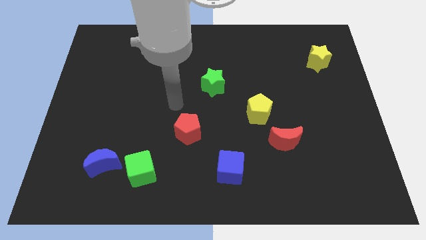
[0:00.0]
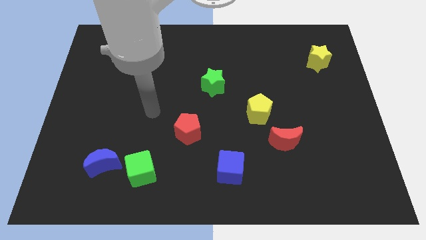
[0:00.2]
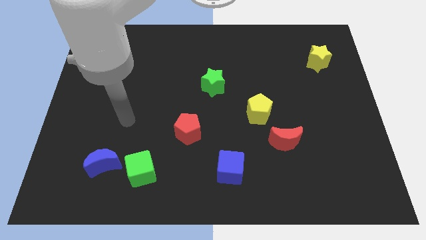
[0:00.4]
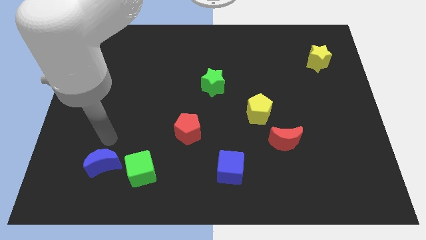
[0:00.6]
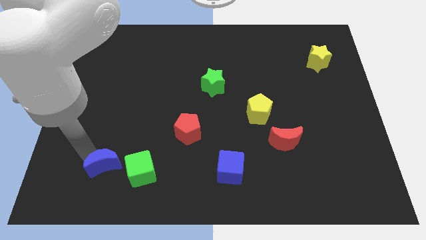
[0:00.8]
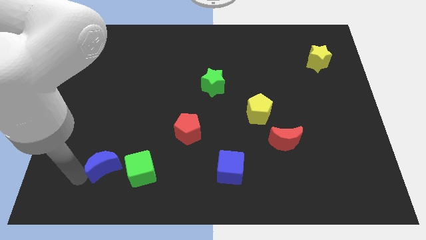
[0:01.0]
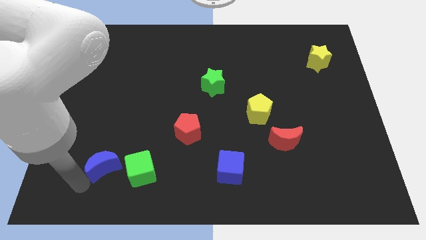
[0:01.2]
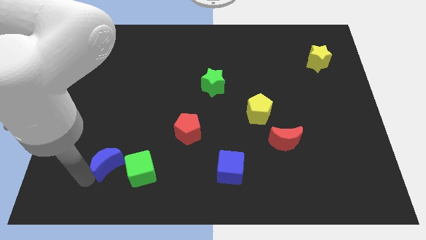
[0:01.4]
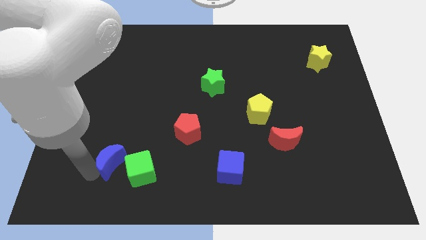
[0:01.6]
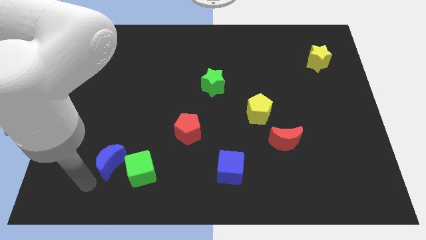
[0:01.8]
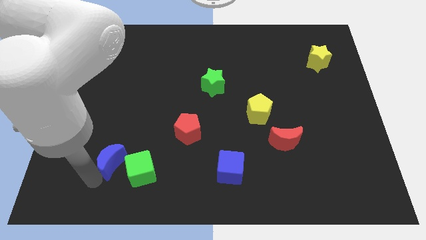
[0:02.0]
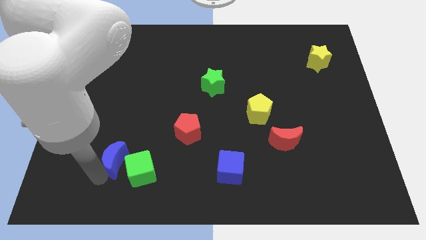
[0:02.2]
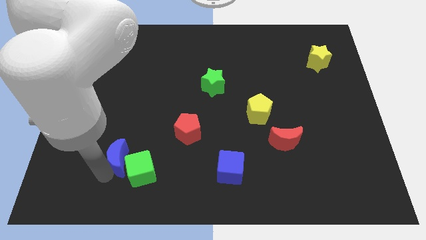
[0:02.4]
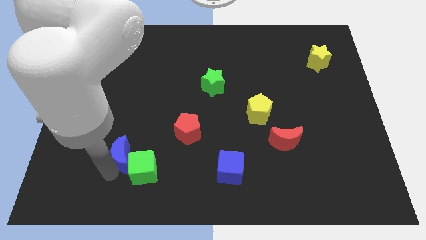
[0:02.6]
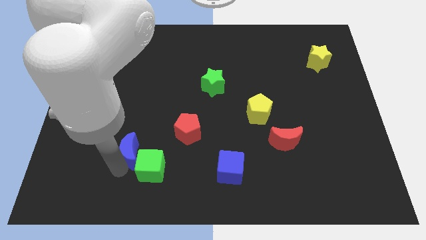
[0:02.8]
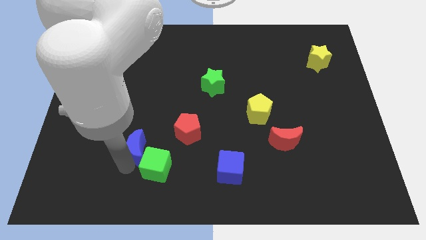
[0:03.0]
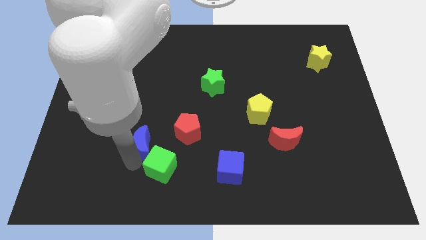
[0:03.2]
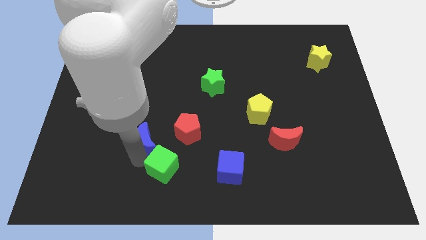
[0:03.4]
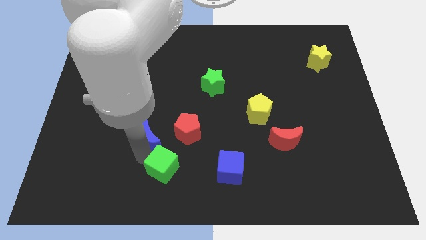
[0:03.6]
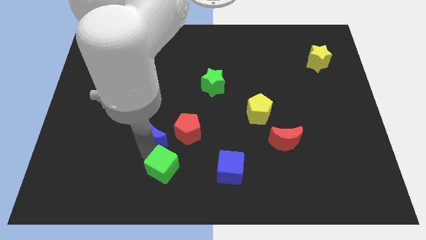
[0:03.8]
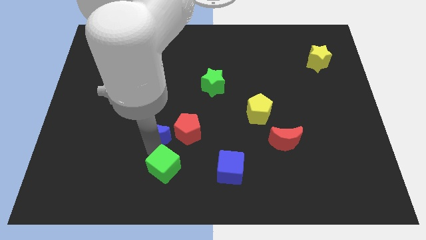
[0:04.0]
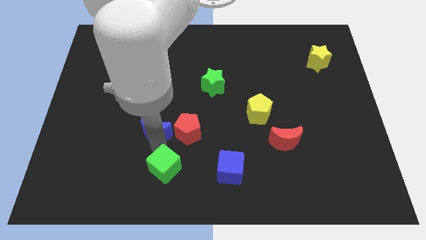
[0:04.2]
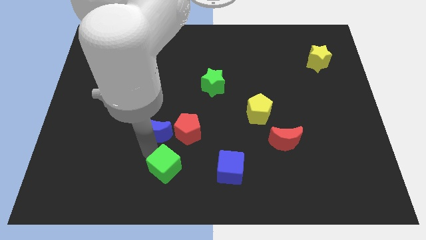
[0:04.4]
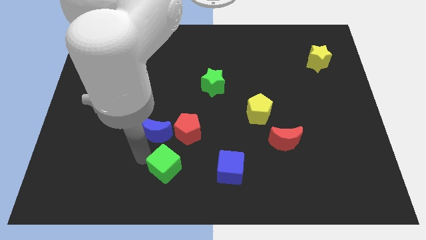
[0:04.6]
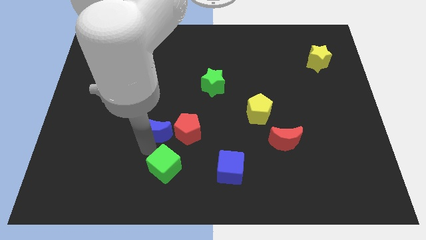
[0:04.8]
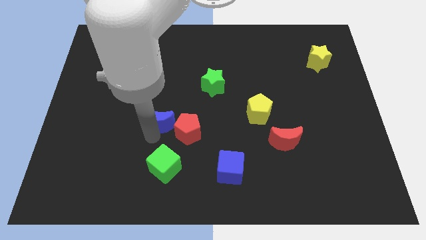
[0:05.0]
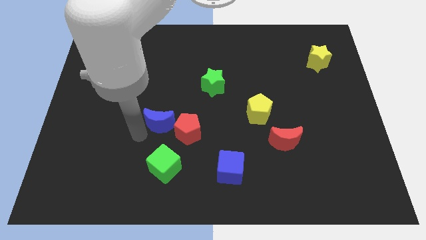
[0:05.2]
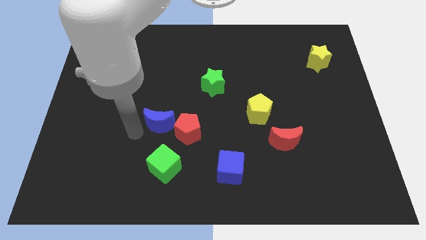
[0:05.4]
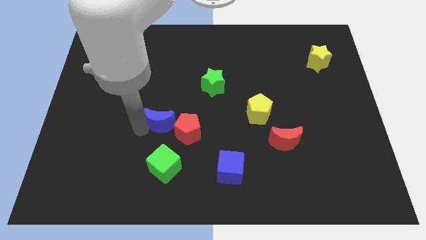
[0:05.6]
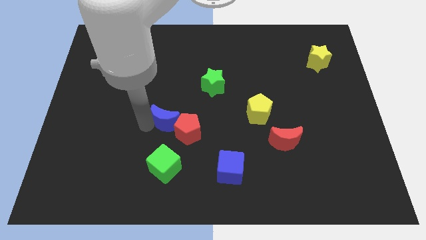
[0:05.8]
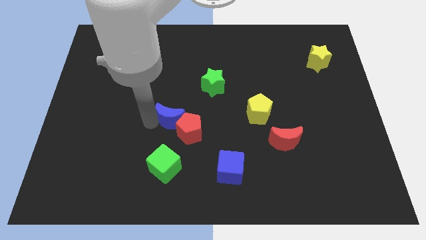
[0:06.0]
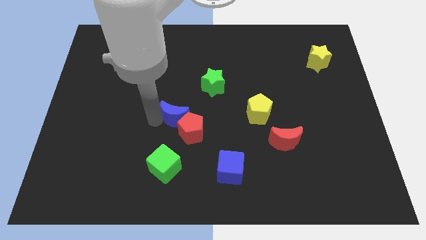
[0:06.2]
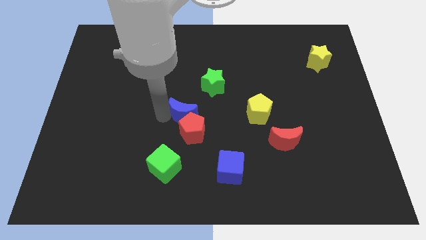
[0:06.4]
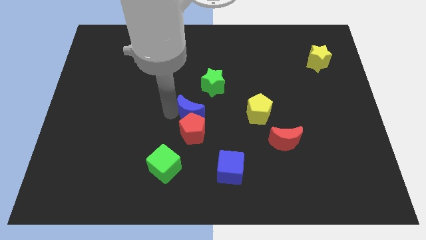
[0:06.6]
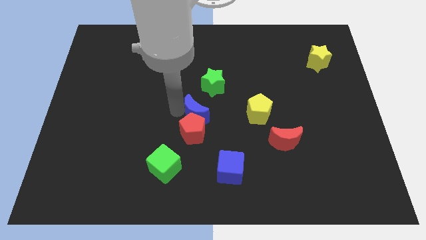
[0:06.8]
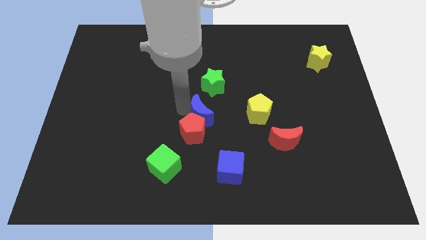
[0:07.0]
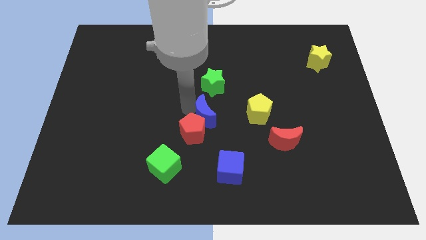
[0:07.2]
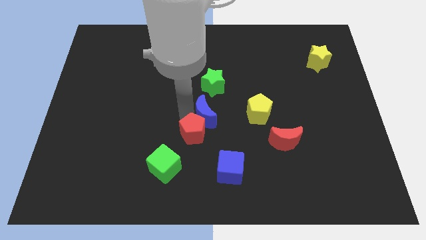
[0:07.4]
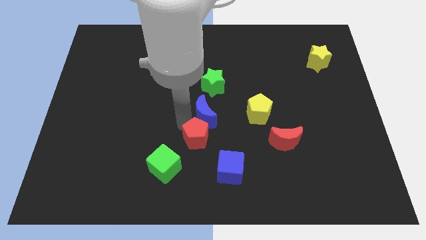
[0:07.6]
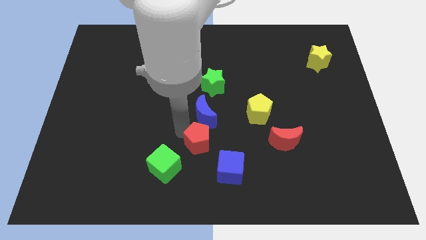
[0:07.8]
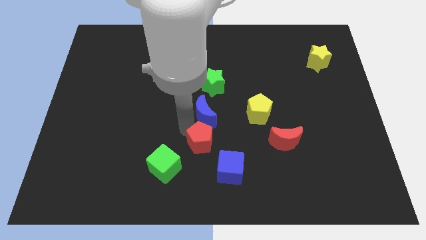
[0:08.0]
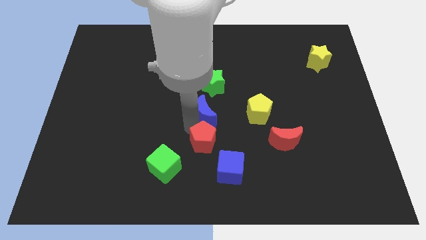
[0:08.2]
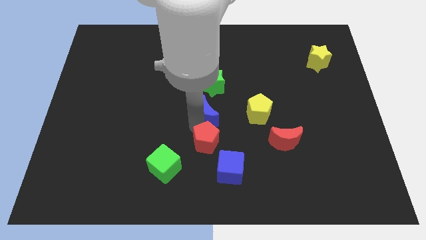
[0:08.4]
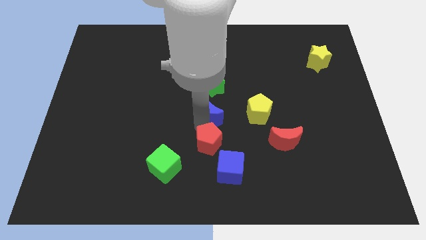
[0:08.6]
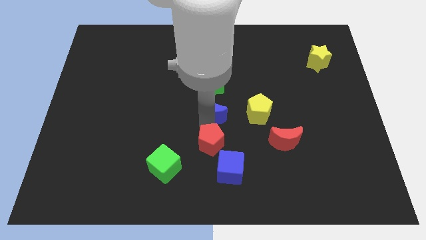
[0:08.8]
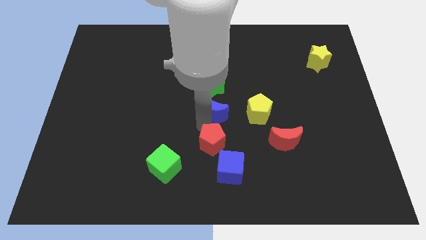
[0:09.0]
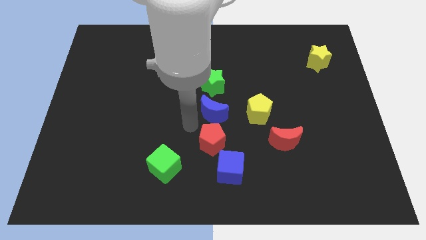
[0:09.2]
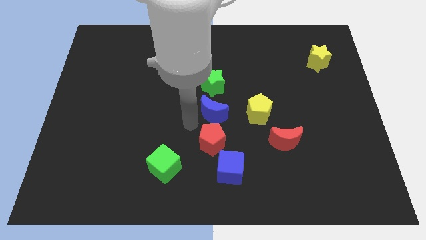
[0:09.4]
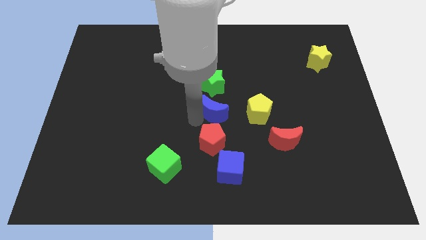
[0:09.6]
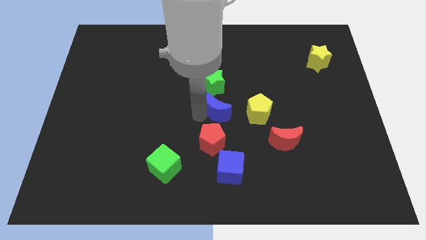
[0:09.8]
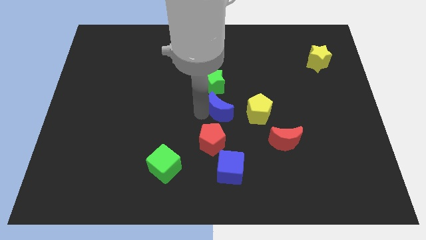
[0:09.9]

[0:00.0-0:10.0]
move the blue moon to the bottom right side of the green star

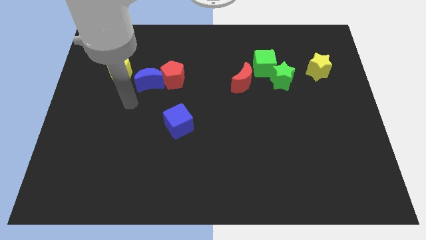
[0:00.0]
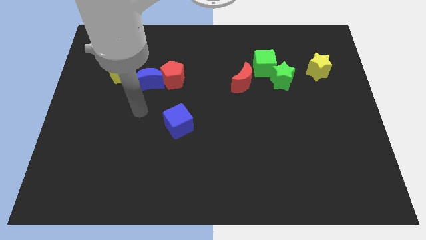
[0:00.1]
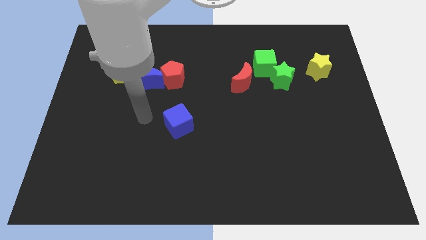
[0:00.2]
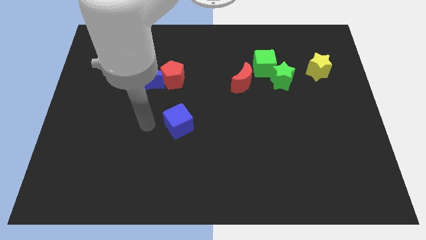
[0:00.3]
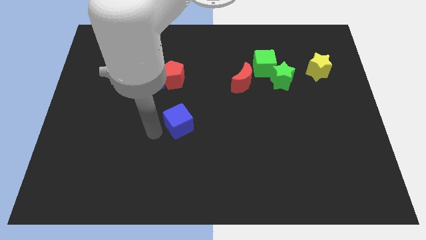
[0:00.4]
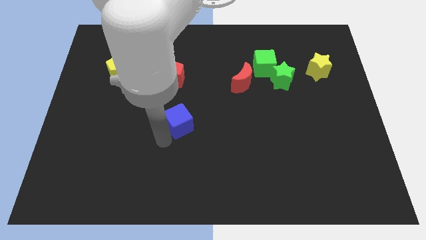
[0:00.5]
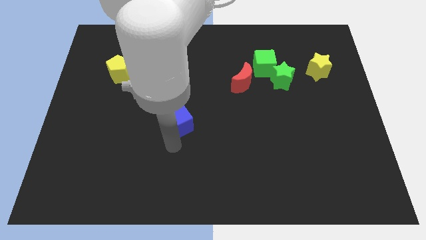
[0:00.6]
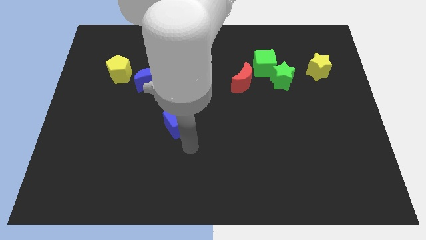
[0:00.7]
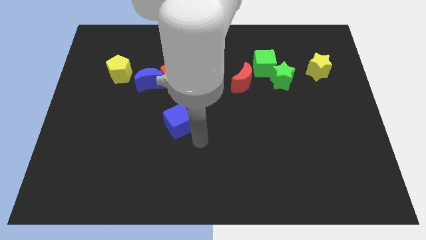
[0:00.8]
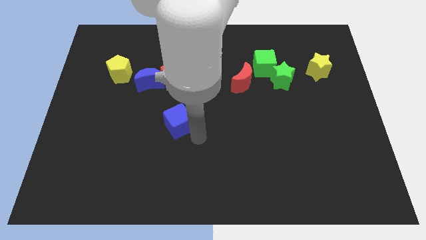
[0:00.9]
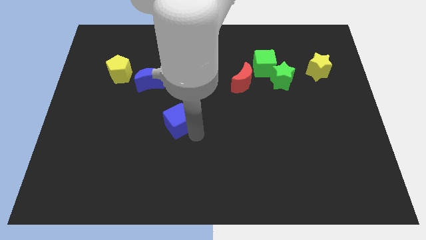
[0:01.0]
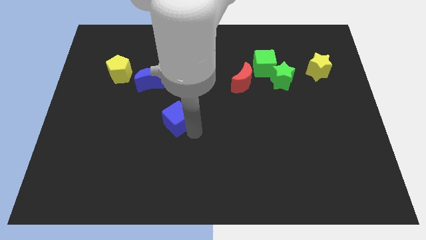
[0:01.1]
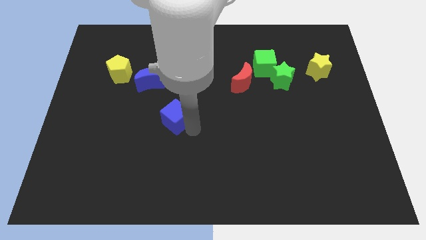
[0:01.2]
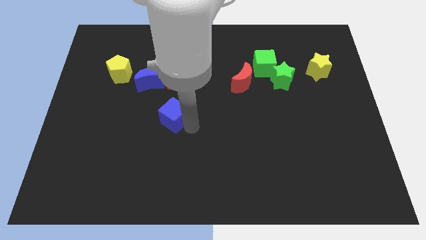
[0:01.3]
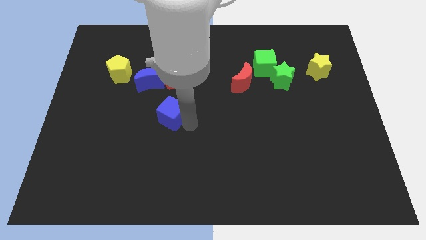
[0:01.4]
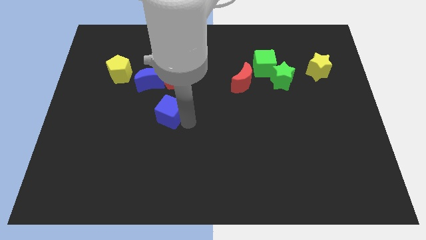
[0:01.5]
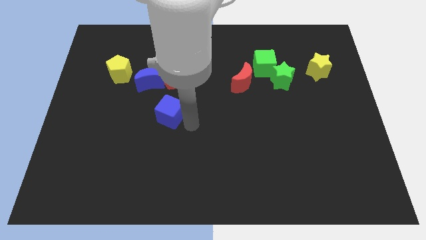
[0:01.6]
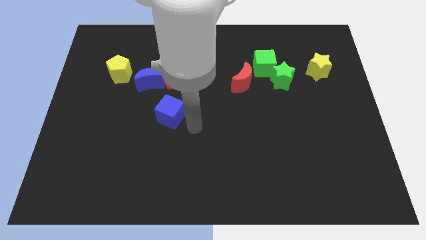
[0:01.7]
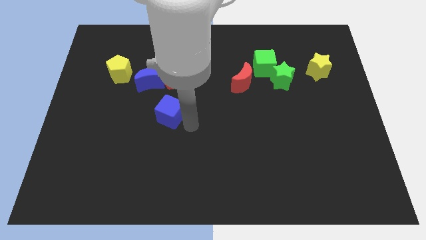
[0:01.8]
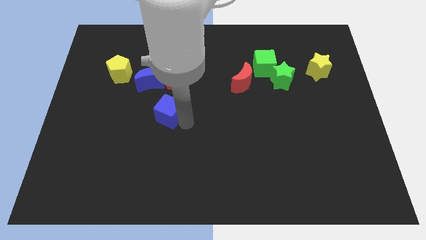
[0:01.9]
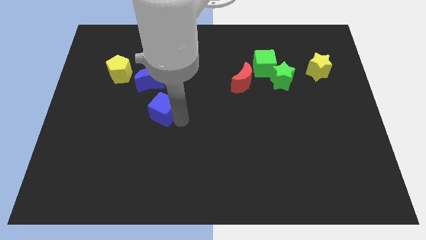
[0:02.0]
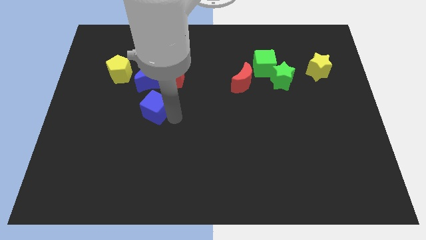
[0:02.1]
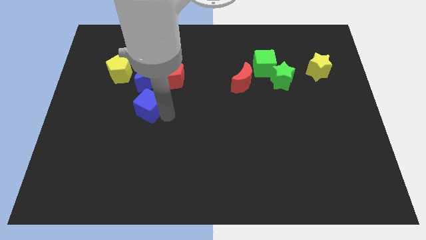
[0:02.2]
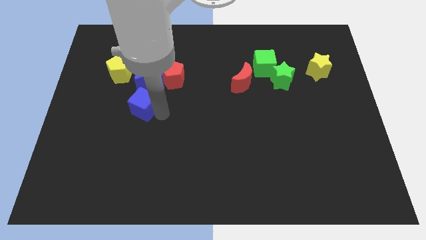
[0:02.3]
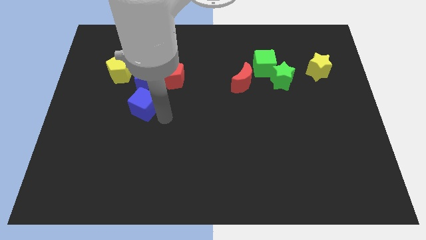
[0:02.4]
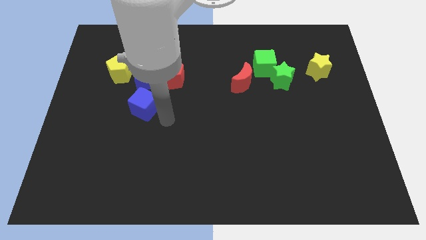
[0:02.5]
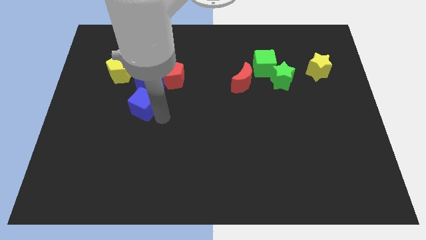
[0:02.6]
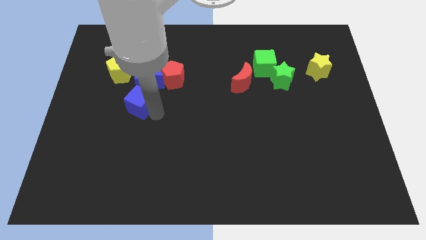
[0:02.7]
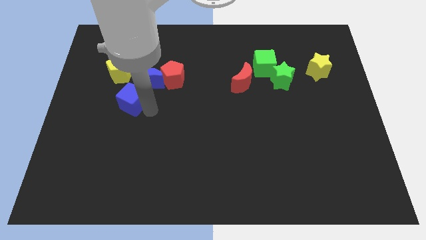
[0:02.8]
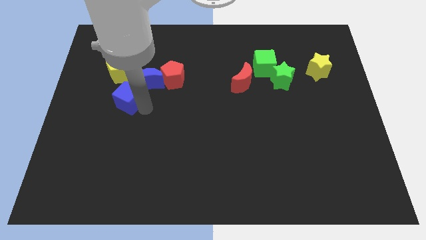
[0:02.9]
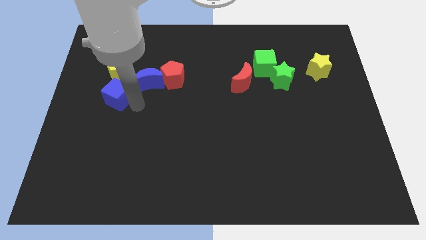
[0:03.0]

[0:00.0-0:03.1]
push the blue cube left of the blue moon
